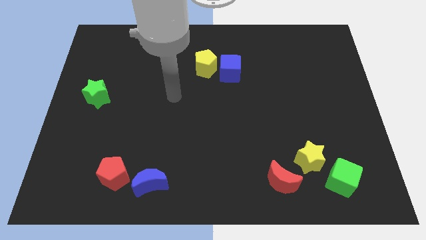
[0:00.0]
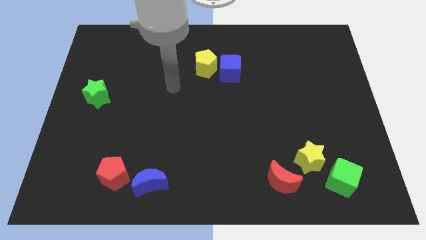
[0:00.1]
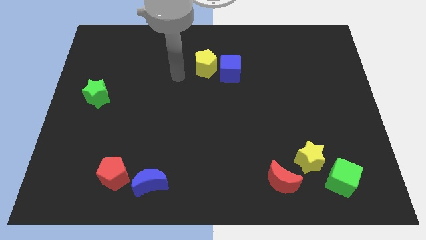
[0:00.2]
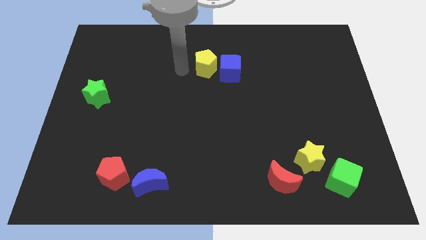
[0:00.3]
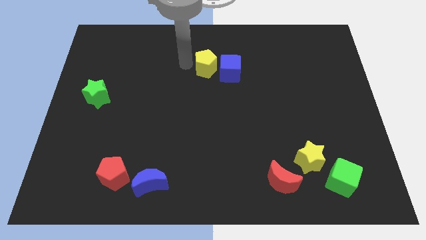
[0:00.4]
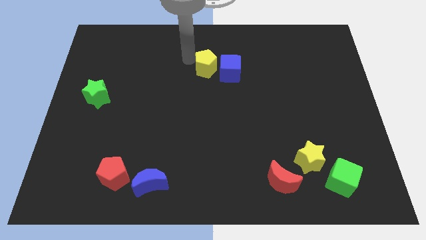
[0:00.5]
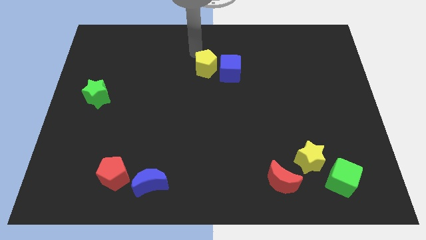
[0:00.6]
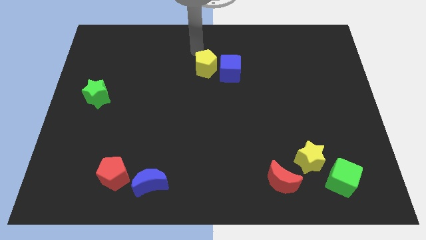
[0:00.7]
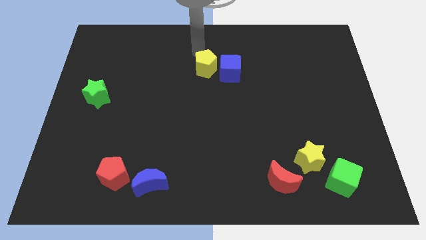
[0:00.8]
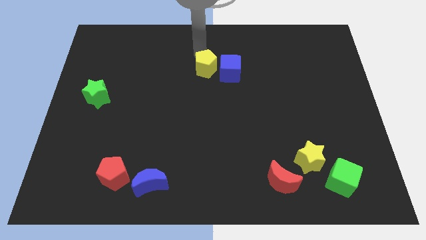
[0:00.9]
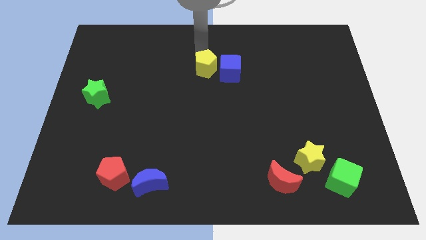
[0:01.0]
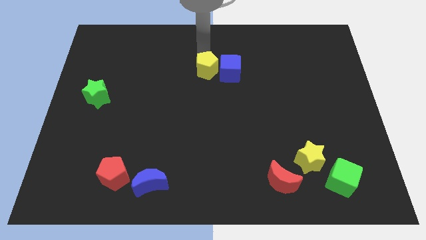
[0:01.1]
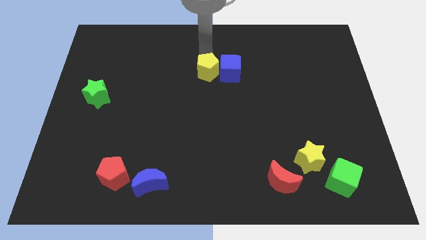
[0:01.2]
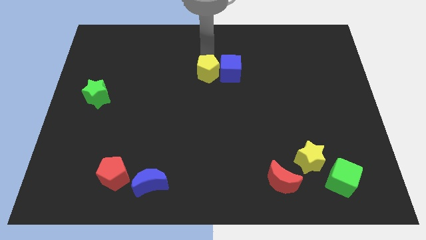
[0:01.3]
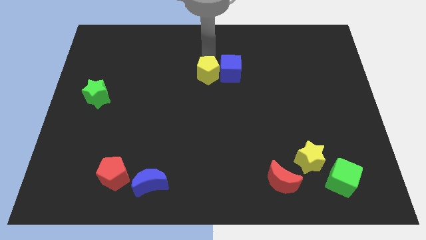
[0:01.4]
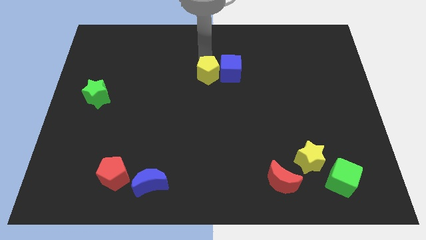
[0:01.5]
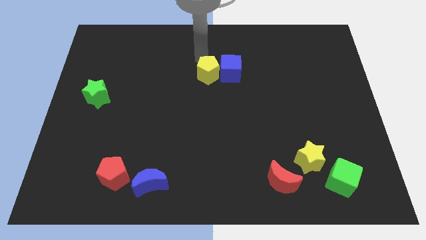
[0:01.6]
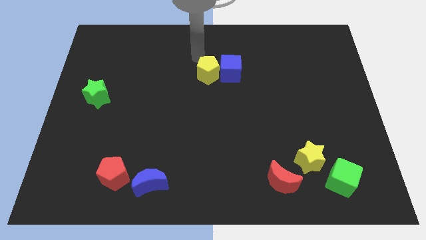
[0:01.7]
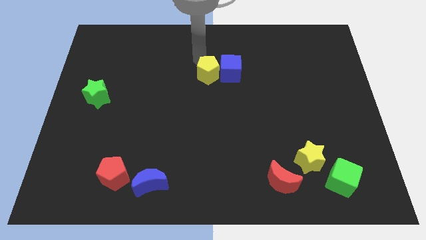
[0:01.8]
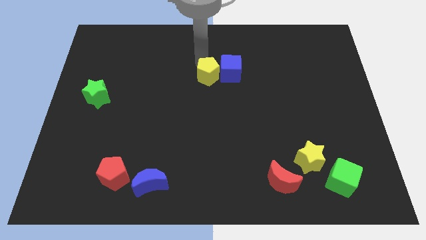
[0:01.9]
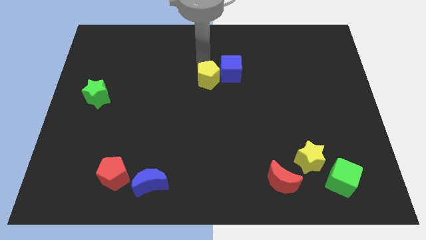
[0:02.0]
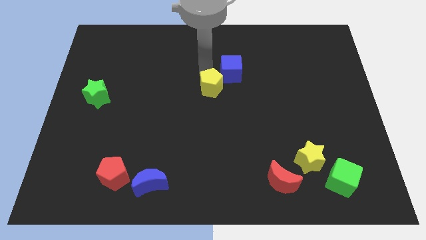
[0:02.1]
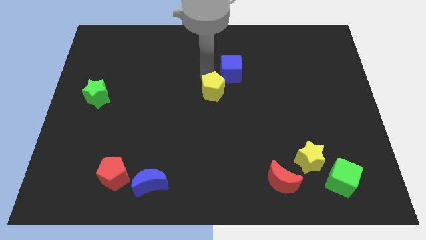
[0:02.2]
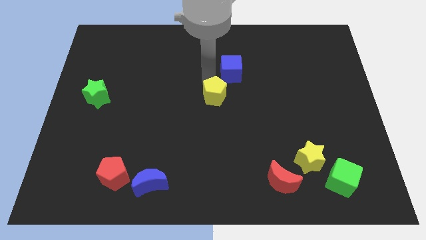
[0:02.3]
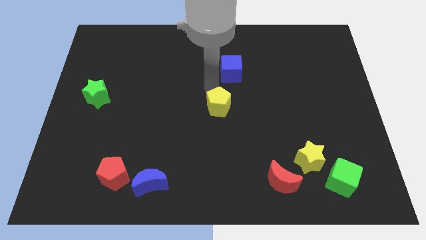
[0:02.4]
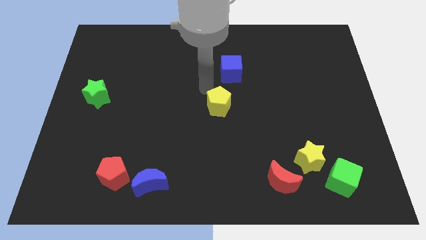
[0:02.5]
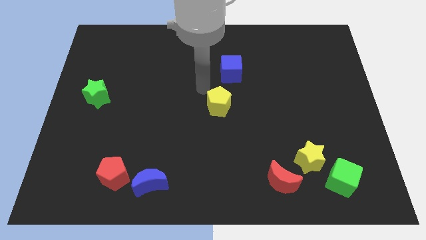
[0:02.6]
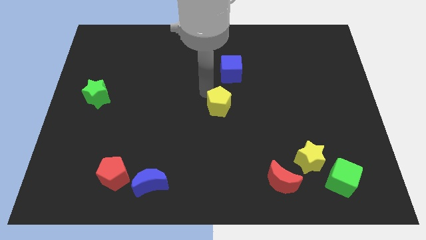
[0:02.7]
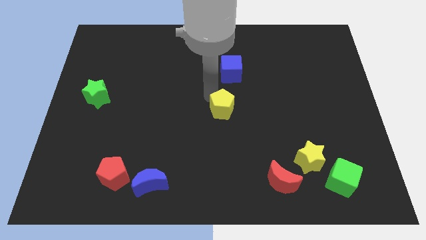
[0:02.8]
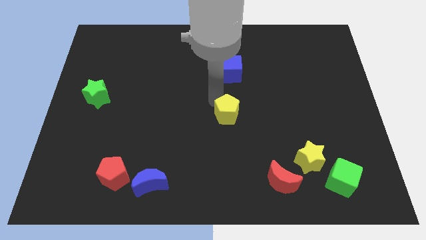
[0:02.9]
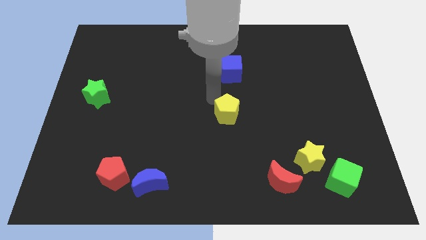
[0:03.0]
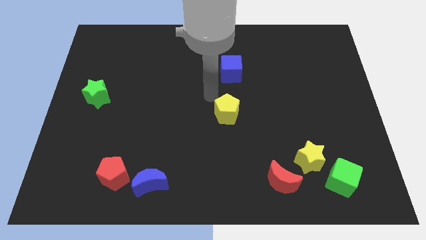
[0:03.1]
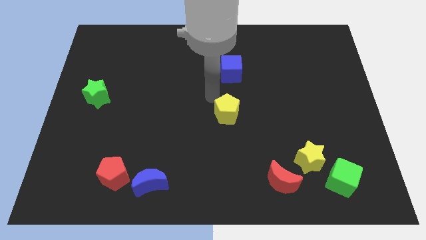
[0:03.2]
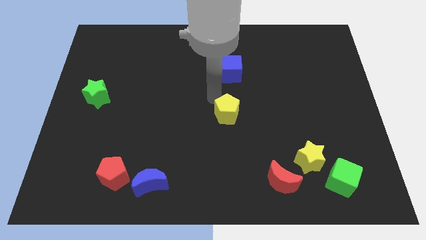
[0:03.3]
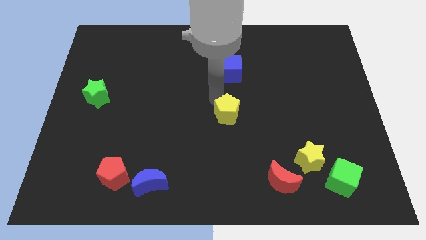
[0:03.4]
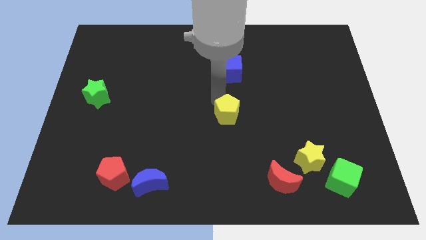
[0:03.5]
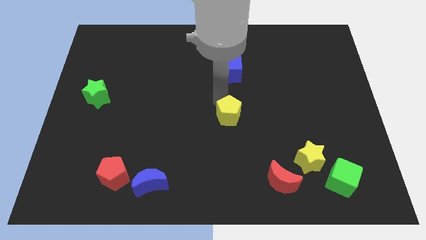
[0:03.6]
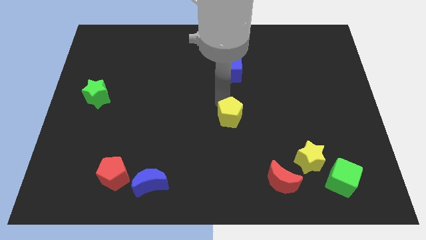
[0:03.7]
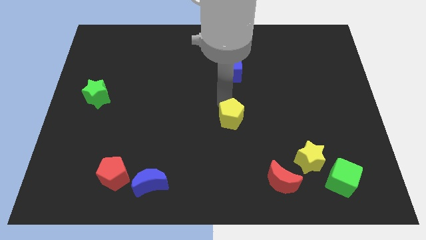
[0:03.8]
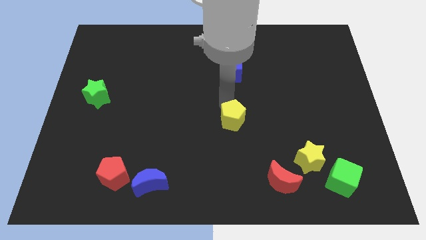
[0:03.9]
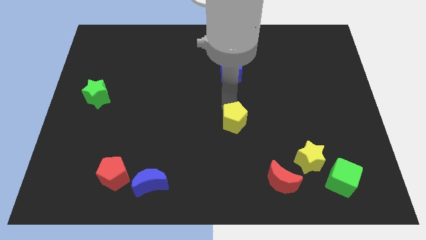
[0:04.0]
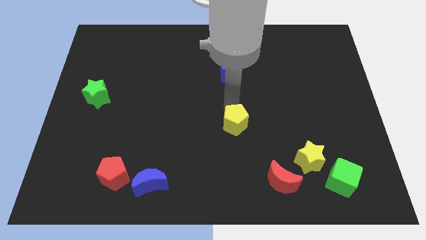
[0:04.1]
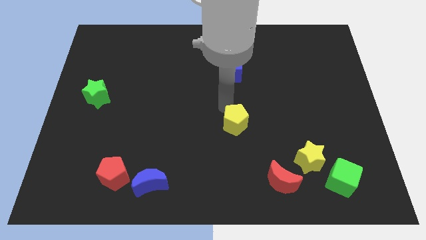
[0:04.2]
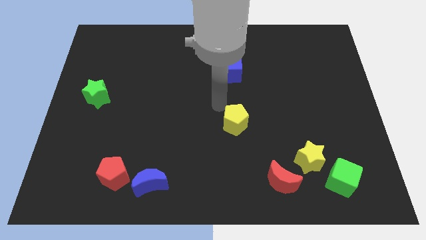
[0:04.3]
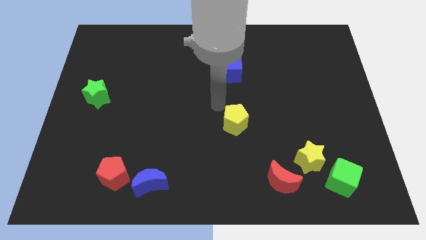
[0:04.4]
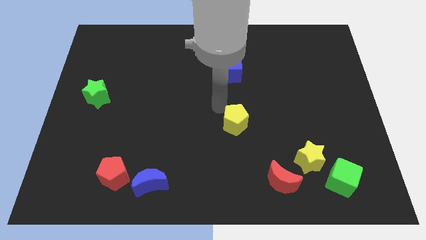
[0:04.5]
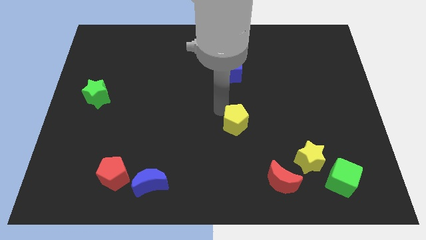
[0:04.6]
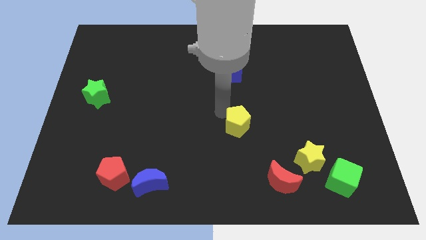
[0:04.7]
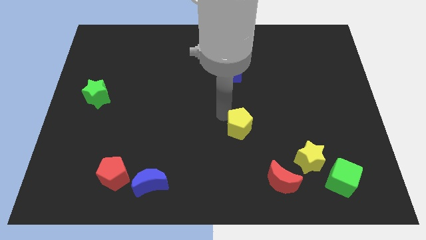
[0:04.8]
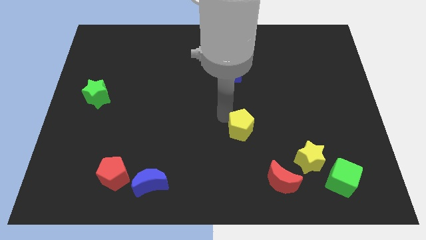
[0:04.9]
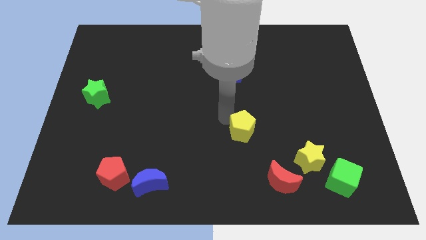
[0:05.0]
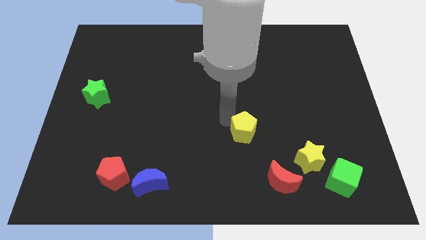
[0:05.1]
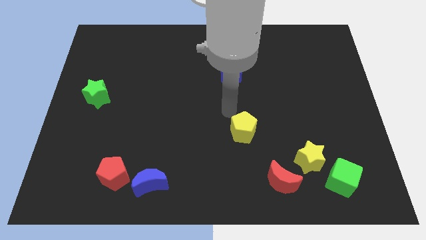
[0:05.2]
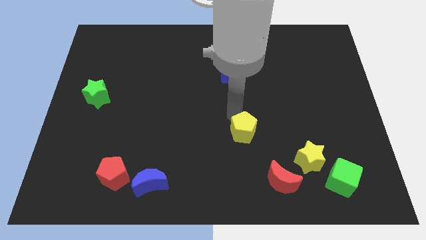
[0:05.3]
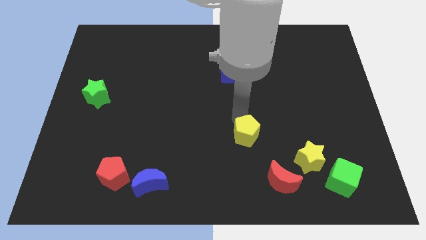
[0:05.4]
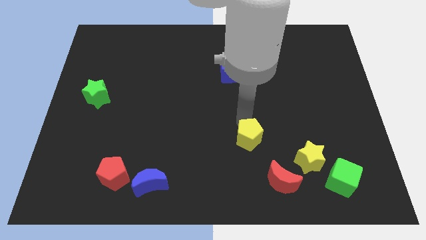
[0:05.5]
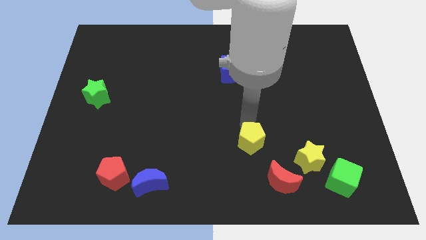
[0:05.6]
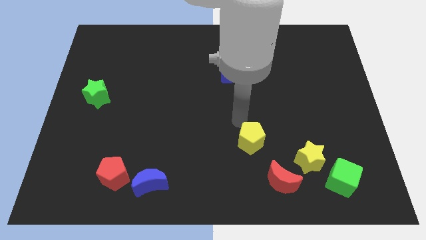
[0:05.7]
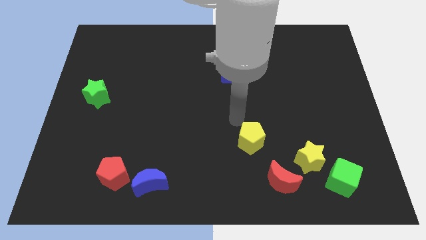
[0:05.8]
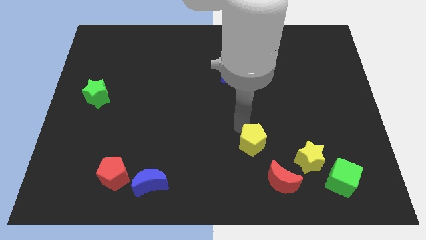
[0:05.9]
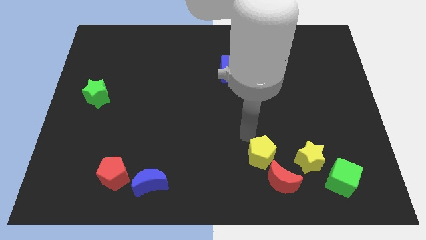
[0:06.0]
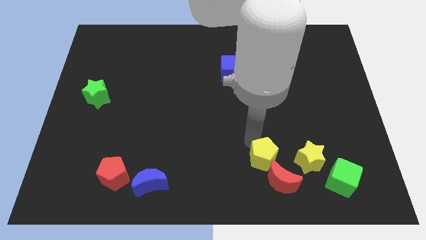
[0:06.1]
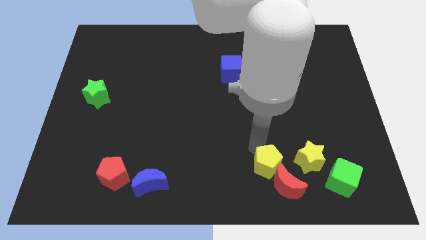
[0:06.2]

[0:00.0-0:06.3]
slide the yellow pentagon to the red moon
